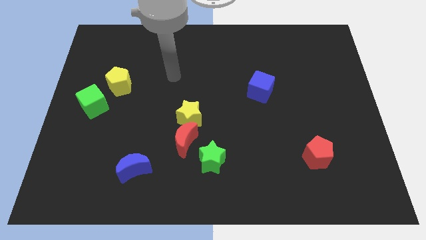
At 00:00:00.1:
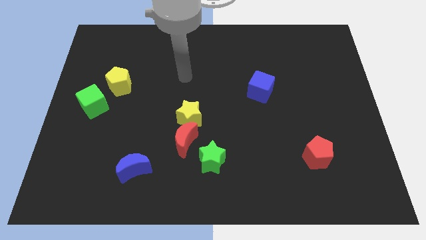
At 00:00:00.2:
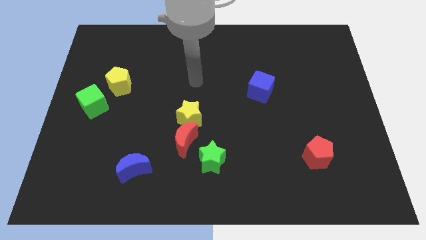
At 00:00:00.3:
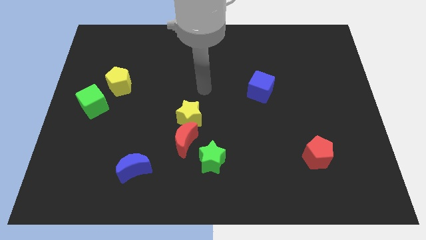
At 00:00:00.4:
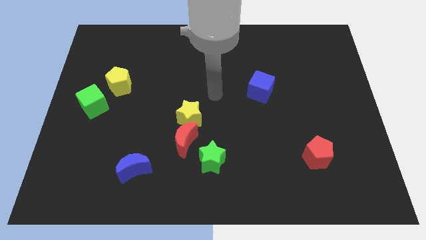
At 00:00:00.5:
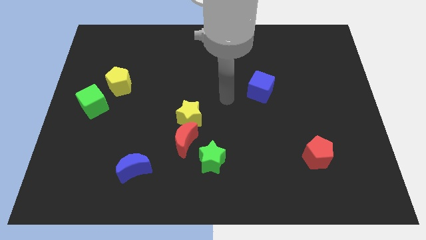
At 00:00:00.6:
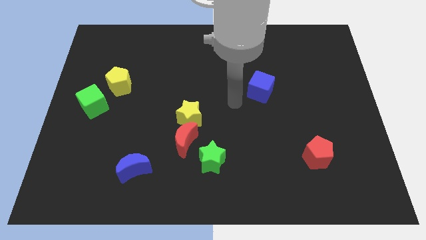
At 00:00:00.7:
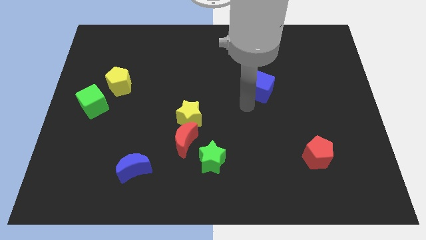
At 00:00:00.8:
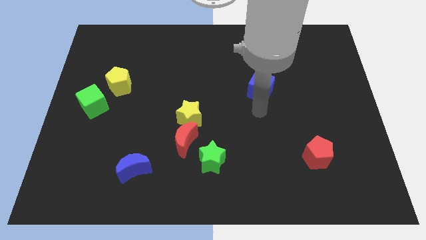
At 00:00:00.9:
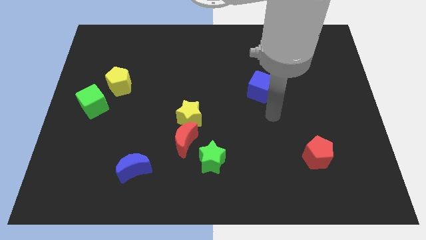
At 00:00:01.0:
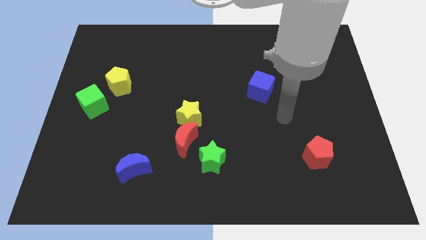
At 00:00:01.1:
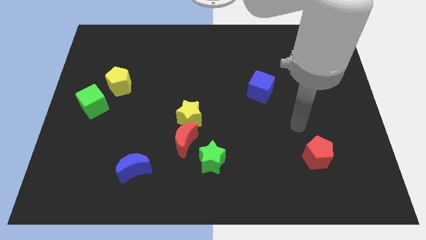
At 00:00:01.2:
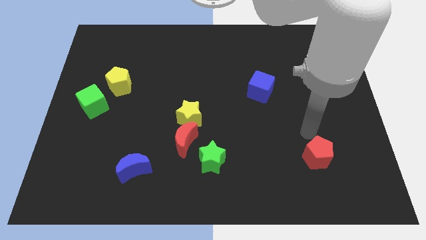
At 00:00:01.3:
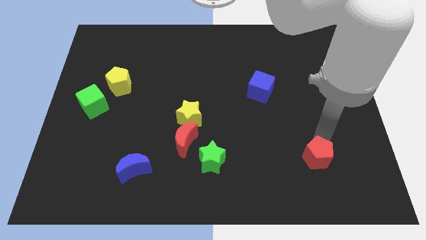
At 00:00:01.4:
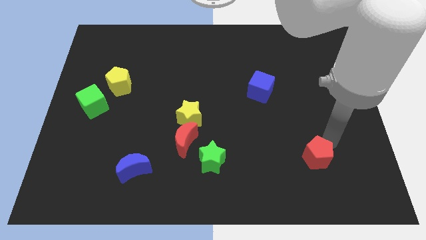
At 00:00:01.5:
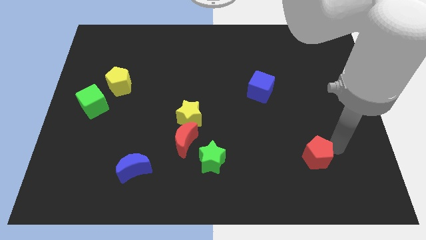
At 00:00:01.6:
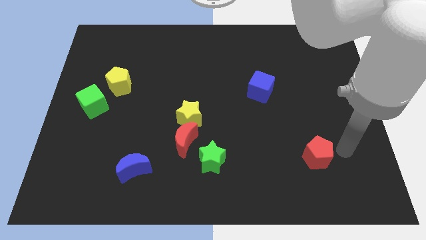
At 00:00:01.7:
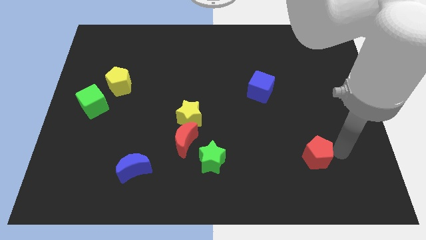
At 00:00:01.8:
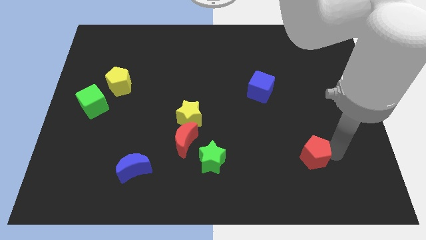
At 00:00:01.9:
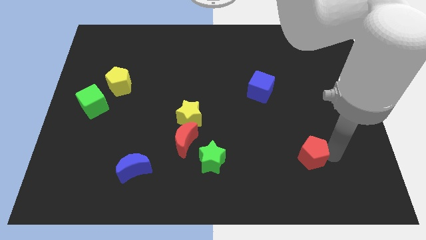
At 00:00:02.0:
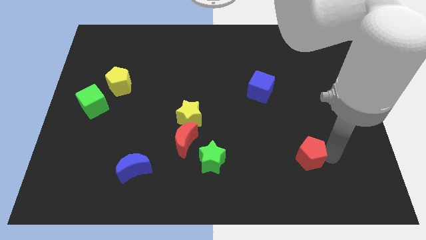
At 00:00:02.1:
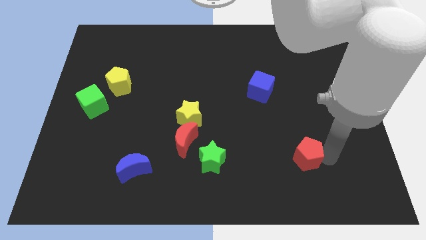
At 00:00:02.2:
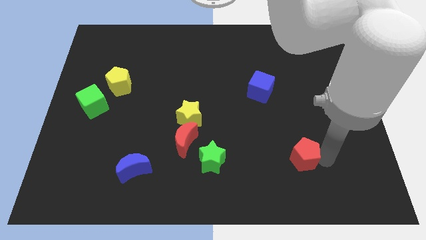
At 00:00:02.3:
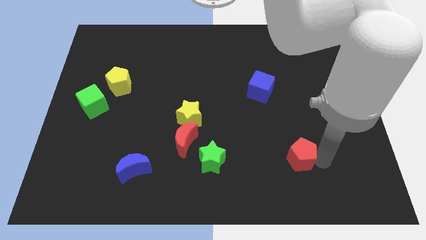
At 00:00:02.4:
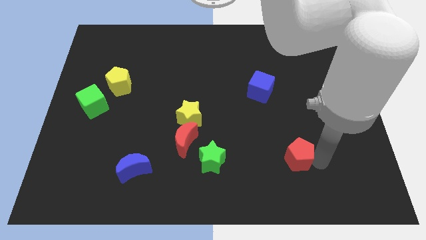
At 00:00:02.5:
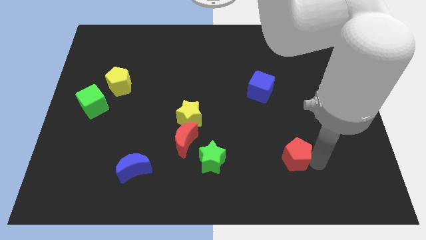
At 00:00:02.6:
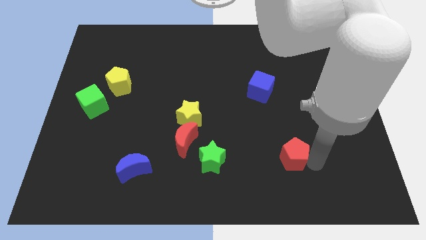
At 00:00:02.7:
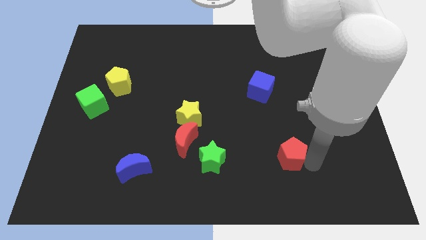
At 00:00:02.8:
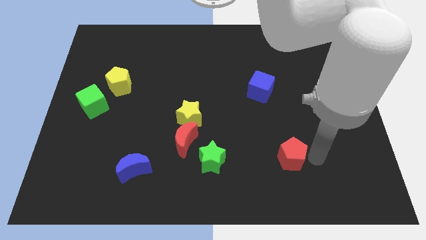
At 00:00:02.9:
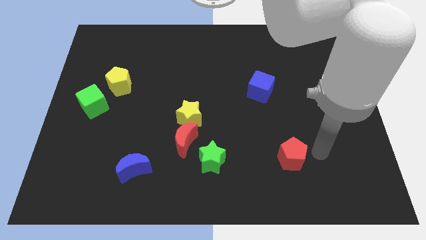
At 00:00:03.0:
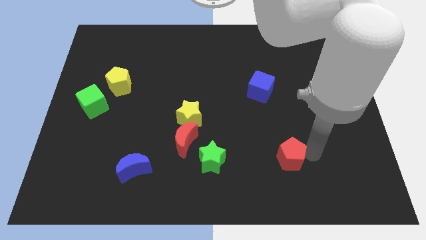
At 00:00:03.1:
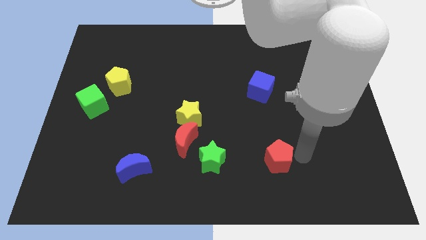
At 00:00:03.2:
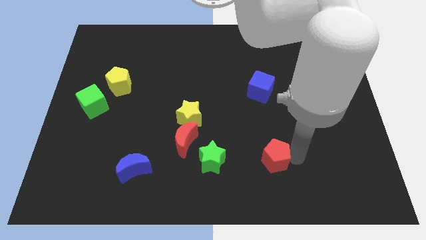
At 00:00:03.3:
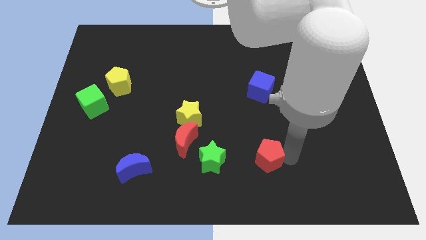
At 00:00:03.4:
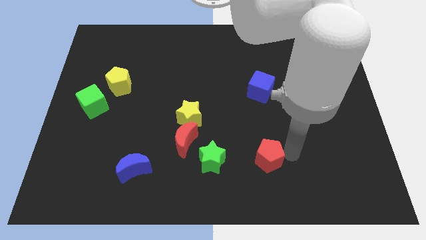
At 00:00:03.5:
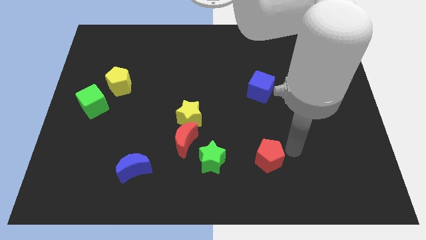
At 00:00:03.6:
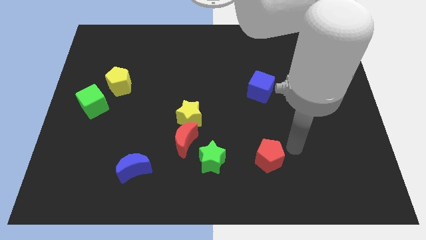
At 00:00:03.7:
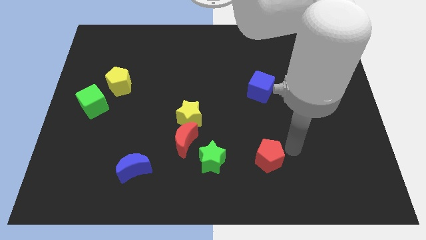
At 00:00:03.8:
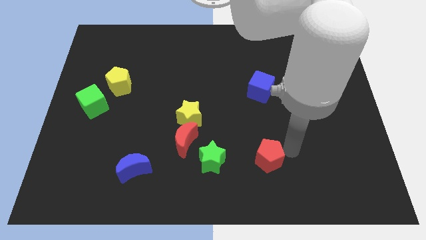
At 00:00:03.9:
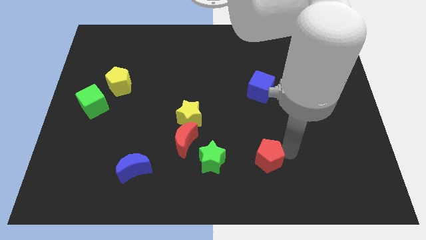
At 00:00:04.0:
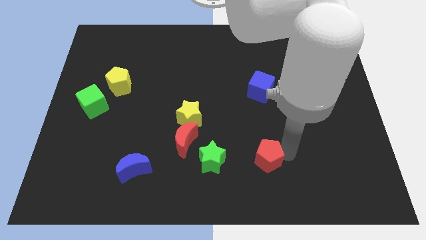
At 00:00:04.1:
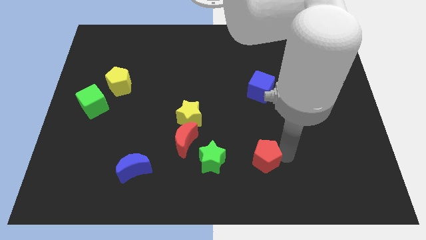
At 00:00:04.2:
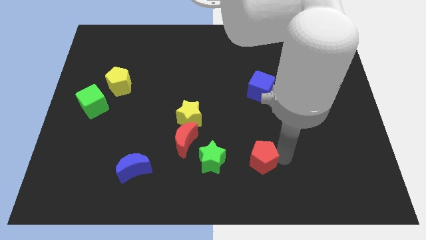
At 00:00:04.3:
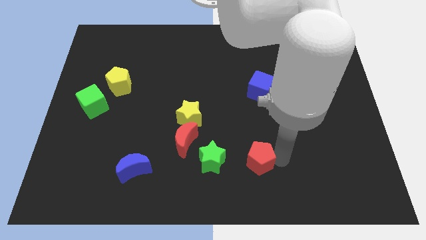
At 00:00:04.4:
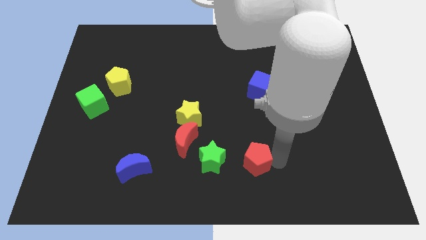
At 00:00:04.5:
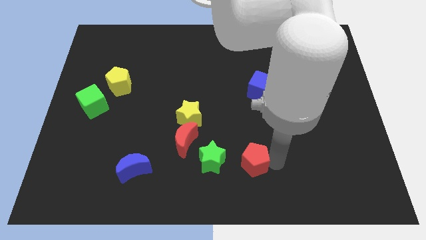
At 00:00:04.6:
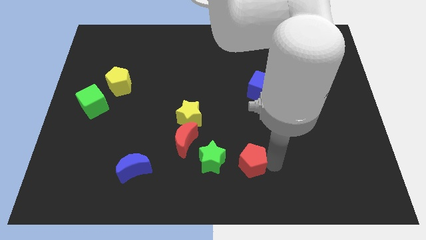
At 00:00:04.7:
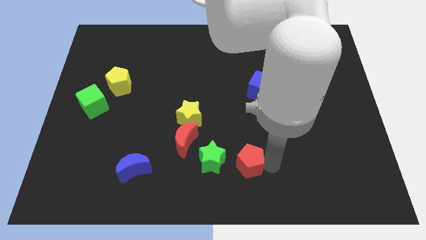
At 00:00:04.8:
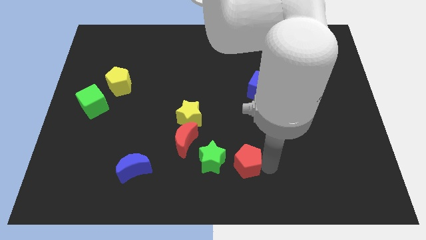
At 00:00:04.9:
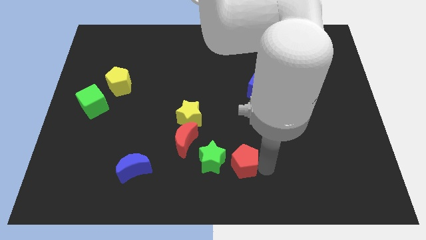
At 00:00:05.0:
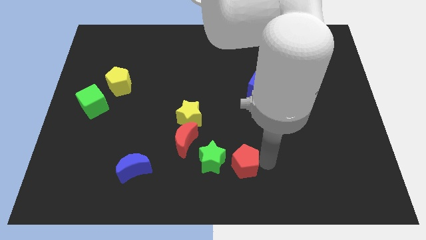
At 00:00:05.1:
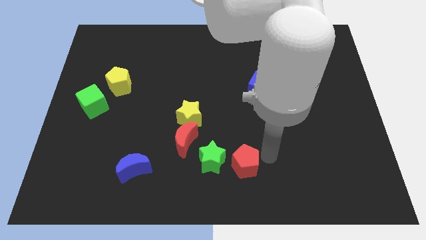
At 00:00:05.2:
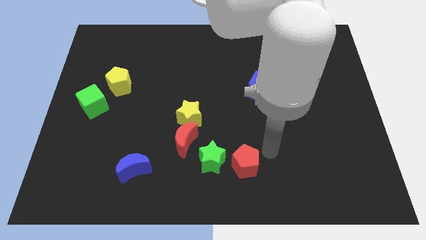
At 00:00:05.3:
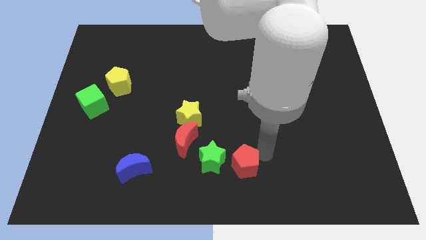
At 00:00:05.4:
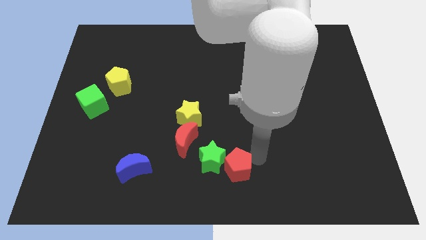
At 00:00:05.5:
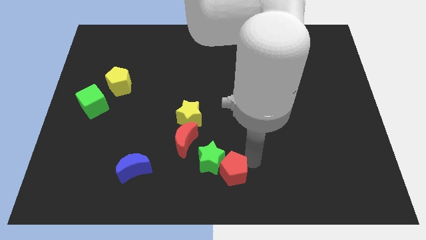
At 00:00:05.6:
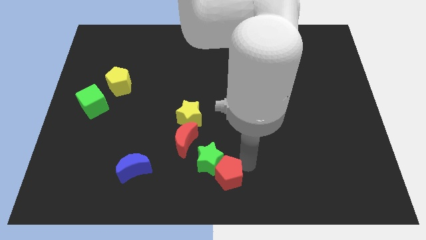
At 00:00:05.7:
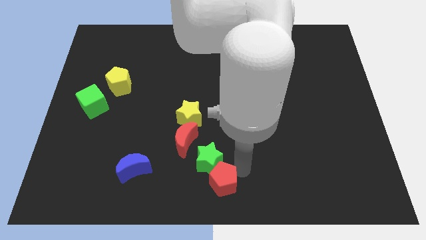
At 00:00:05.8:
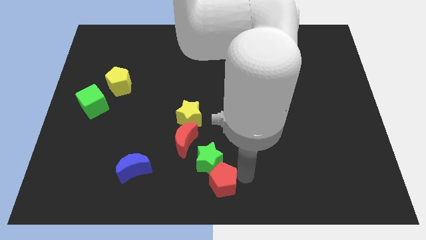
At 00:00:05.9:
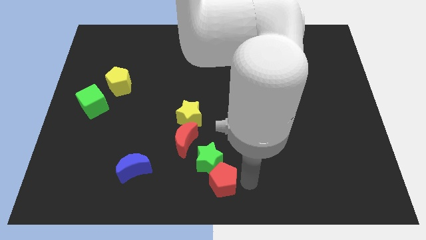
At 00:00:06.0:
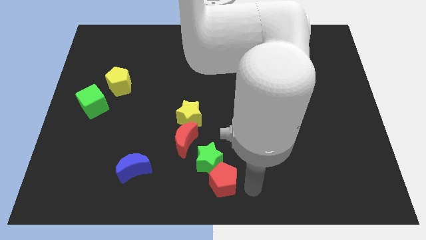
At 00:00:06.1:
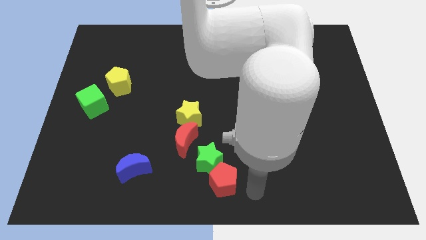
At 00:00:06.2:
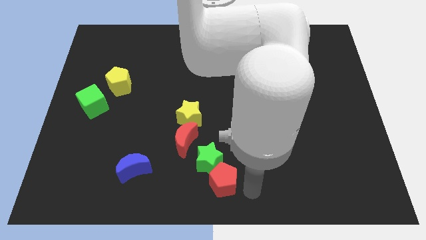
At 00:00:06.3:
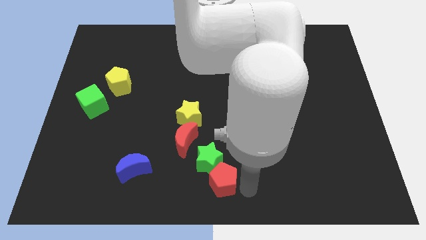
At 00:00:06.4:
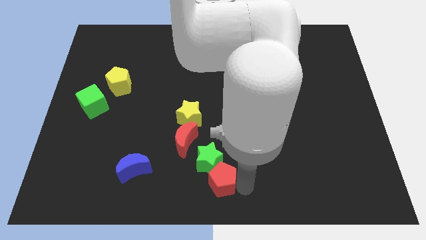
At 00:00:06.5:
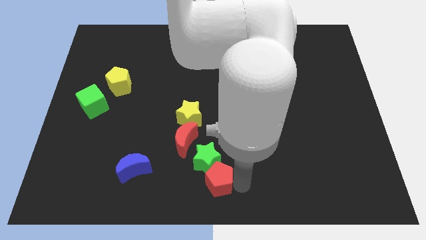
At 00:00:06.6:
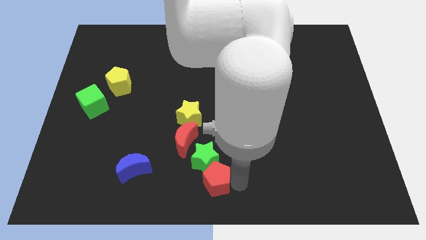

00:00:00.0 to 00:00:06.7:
move the red pentagon to the left

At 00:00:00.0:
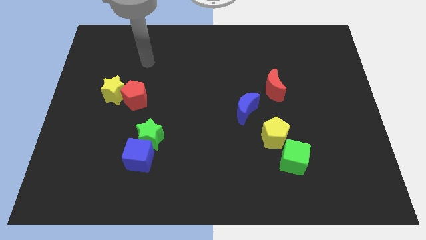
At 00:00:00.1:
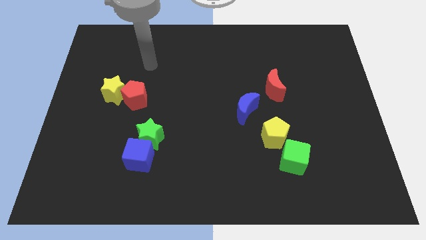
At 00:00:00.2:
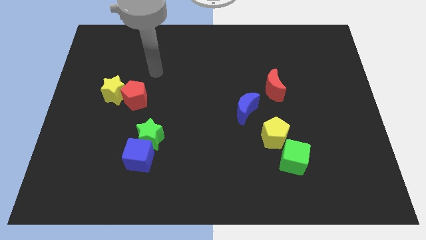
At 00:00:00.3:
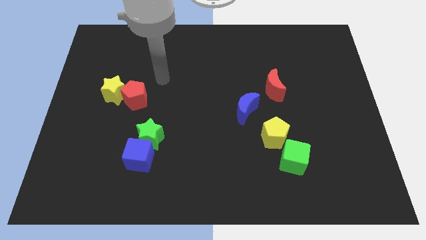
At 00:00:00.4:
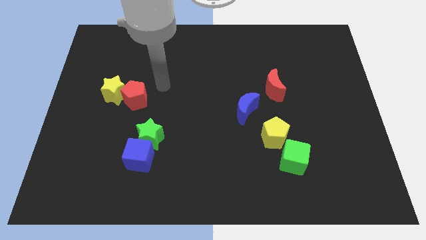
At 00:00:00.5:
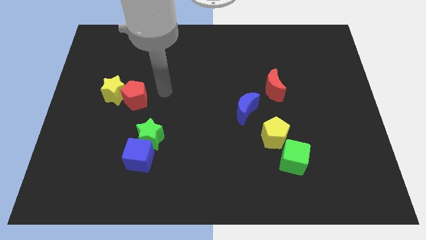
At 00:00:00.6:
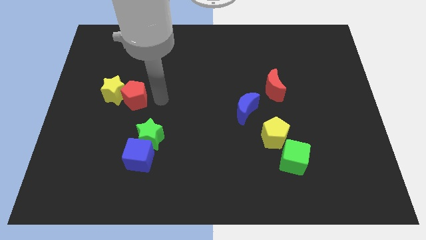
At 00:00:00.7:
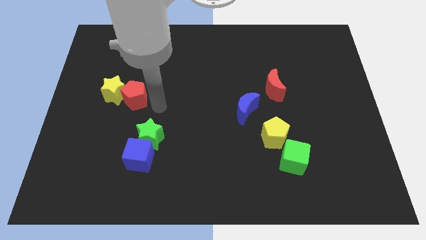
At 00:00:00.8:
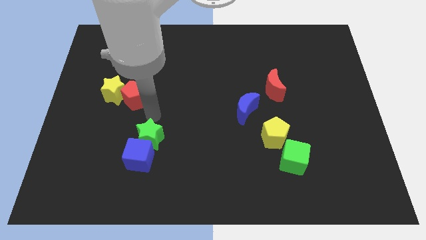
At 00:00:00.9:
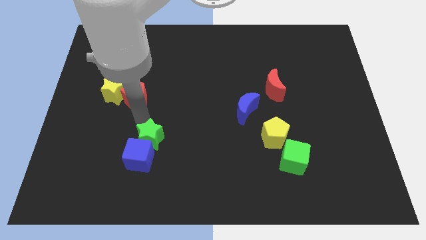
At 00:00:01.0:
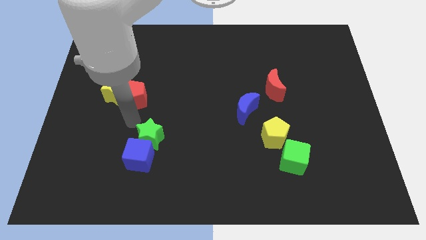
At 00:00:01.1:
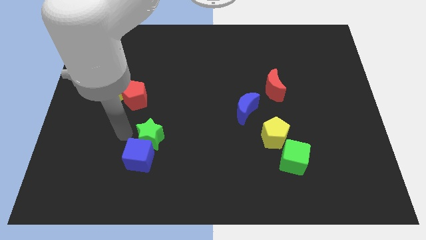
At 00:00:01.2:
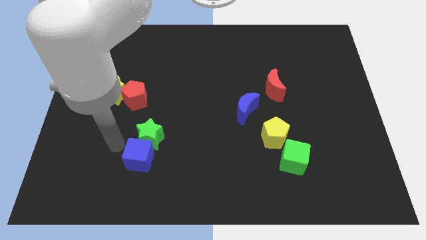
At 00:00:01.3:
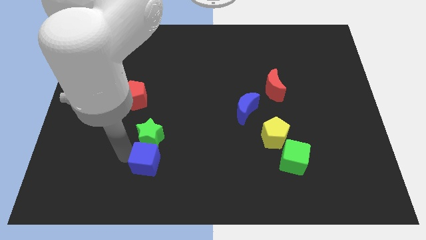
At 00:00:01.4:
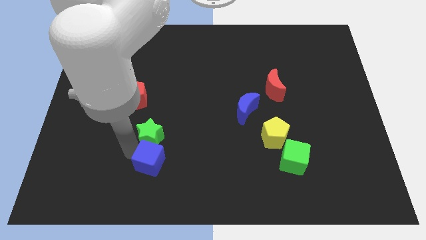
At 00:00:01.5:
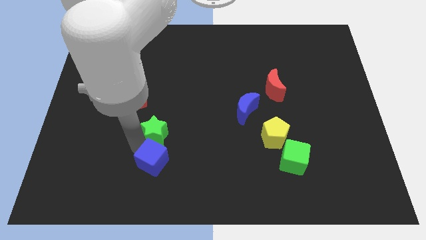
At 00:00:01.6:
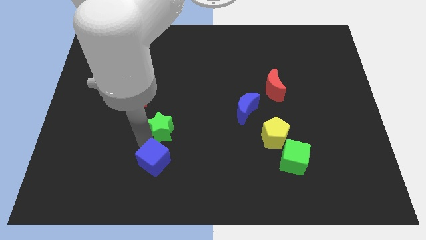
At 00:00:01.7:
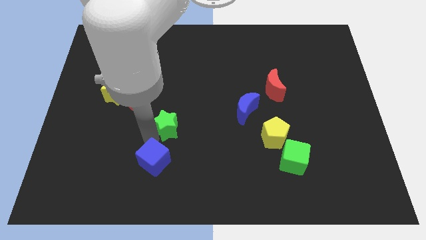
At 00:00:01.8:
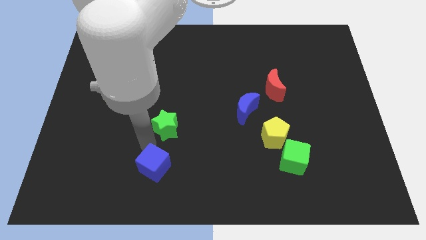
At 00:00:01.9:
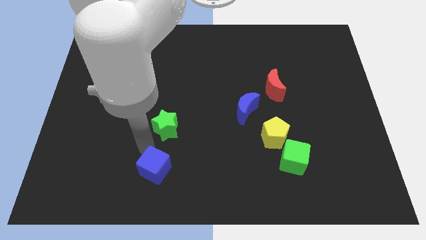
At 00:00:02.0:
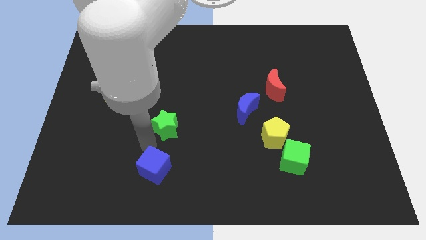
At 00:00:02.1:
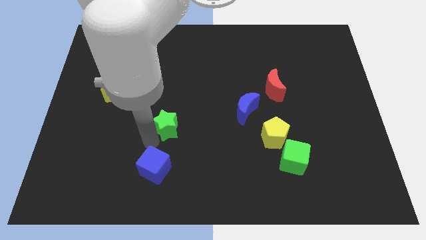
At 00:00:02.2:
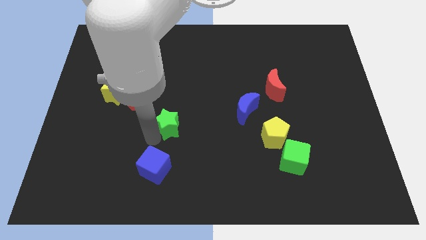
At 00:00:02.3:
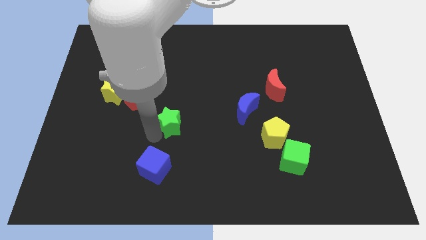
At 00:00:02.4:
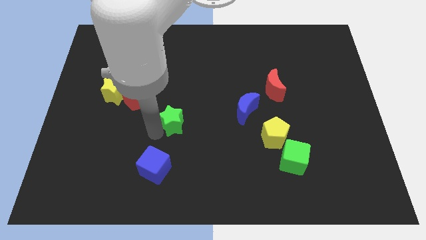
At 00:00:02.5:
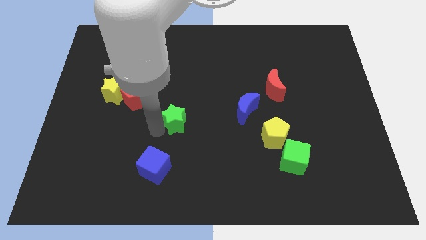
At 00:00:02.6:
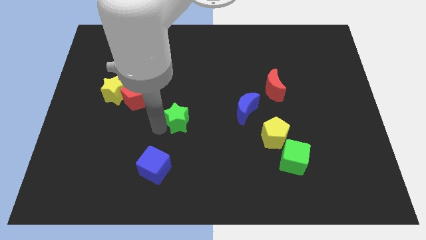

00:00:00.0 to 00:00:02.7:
slightly move the green star diagonally up and right
